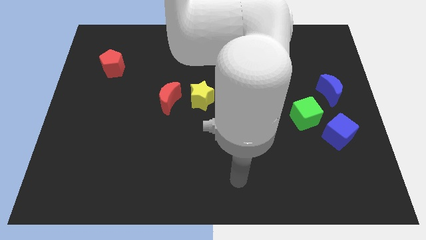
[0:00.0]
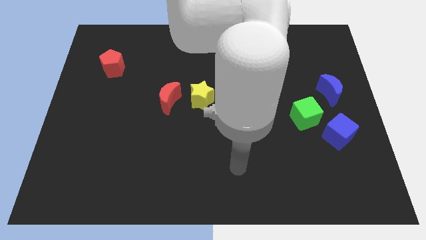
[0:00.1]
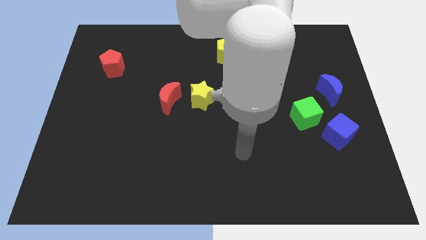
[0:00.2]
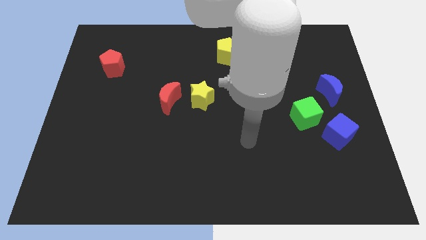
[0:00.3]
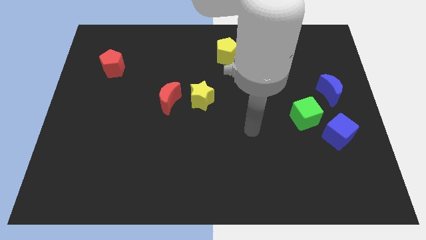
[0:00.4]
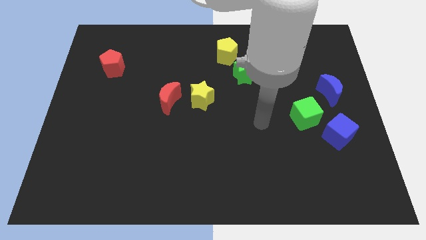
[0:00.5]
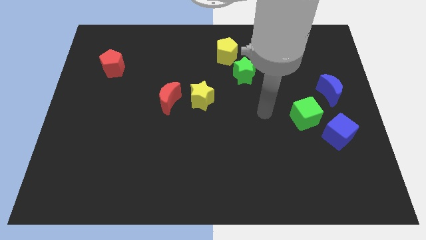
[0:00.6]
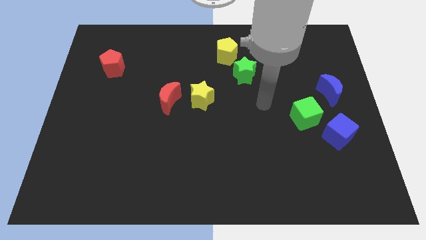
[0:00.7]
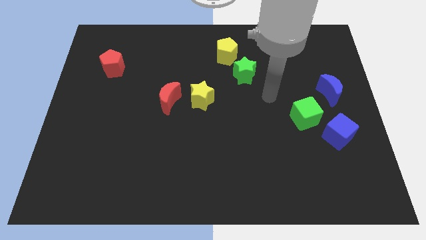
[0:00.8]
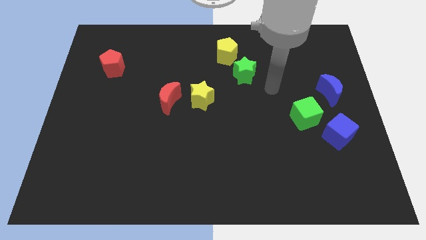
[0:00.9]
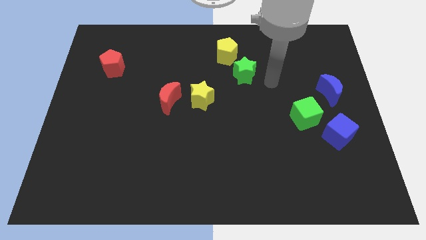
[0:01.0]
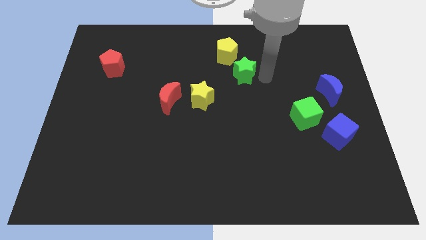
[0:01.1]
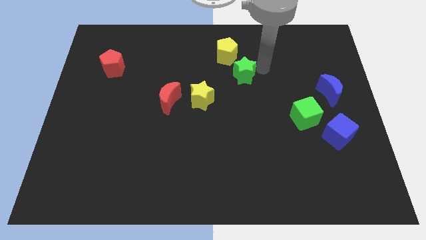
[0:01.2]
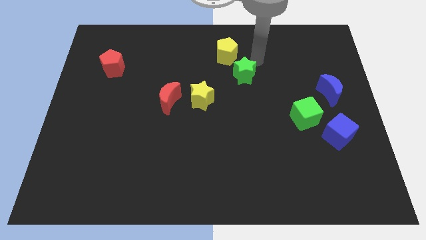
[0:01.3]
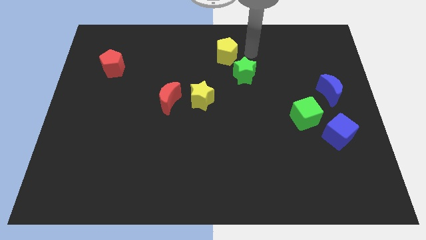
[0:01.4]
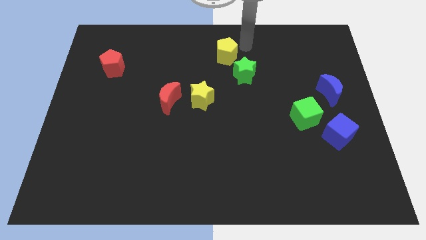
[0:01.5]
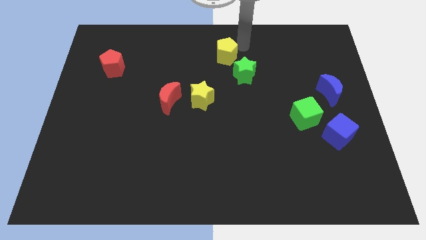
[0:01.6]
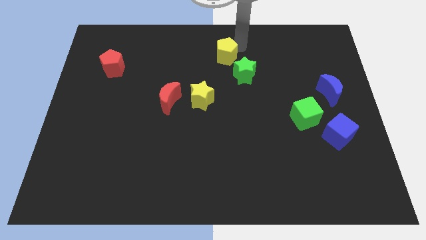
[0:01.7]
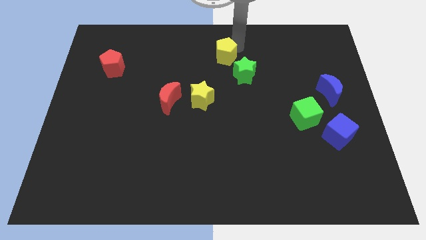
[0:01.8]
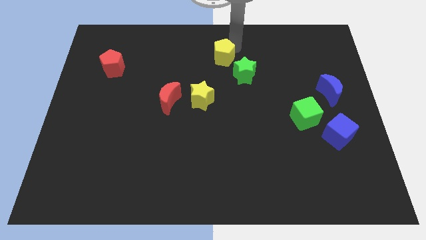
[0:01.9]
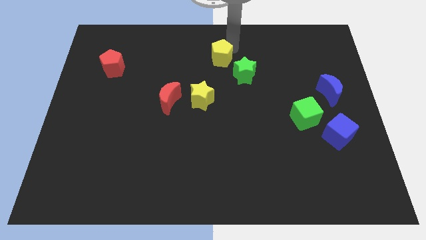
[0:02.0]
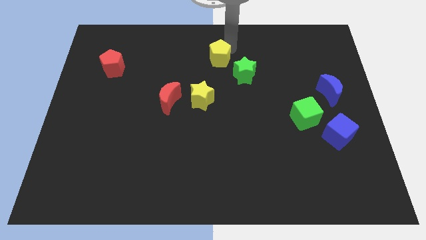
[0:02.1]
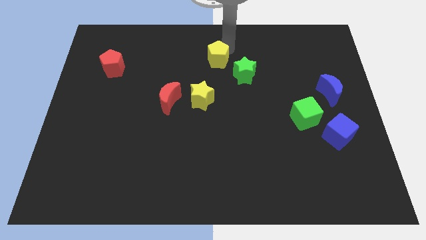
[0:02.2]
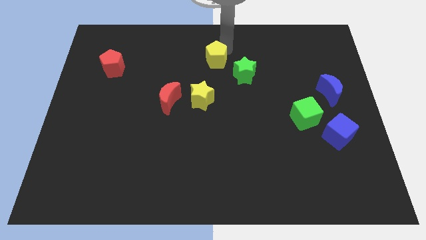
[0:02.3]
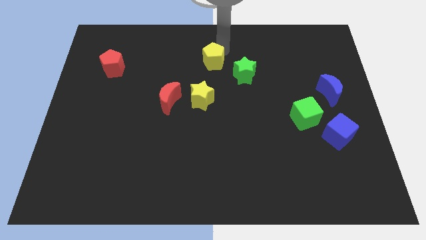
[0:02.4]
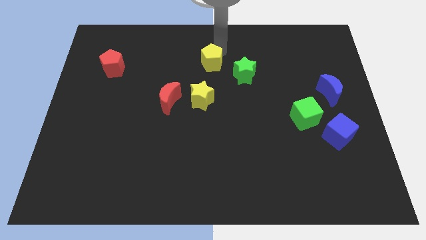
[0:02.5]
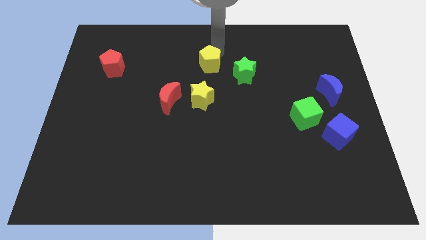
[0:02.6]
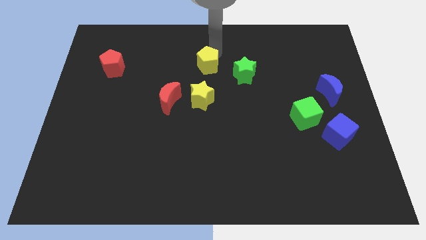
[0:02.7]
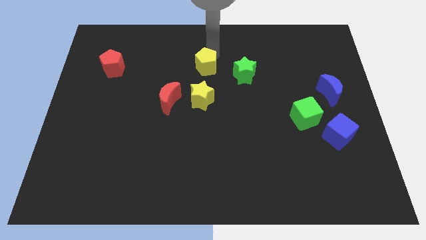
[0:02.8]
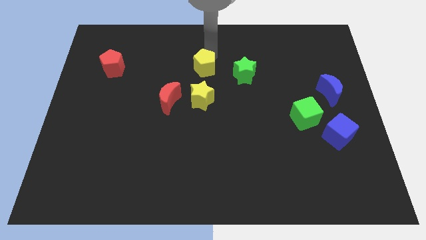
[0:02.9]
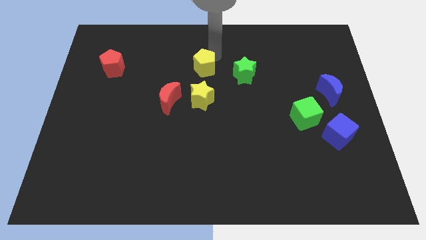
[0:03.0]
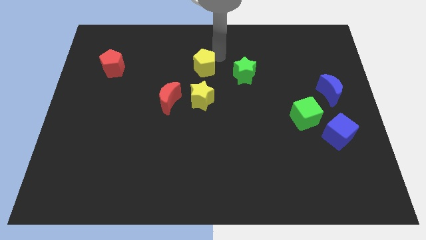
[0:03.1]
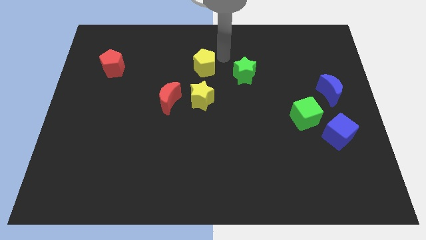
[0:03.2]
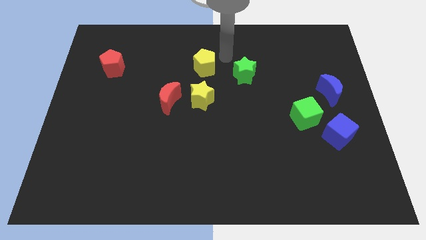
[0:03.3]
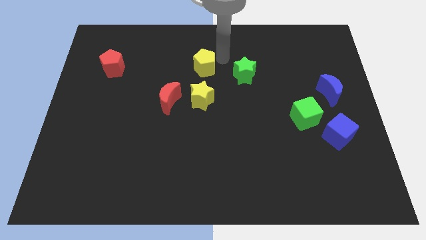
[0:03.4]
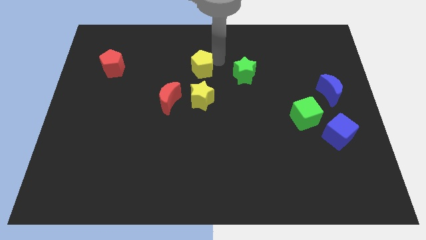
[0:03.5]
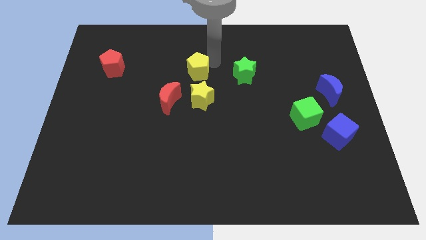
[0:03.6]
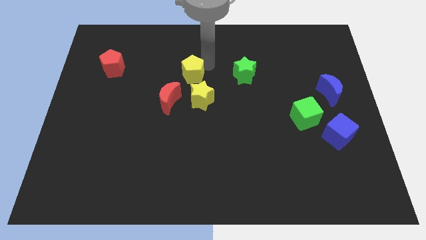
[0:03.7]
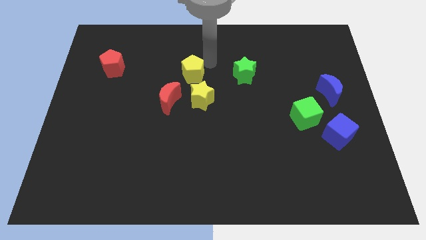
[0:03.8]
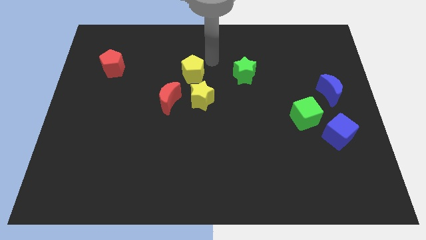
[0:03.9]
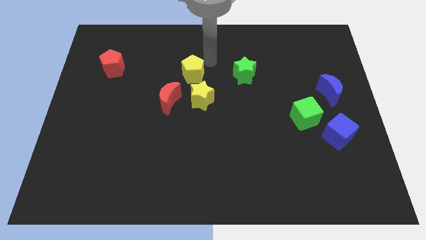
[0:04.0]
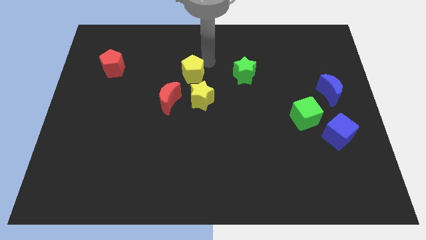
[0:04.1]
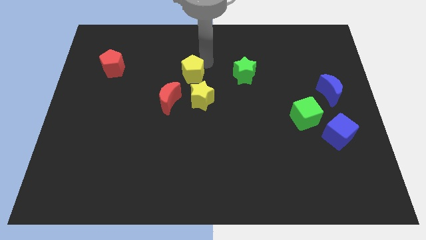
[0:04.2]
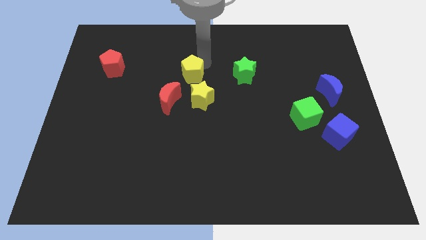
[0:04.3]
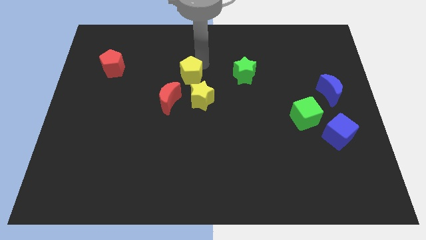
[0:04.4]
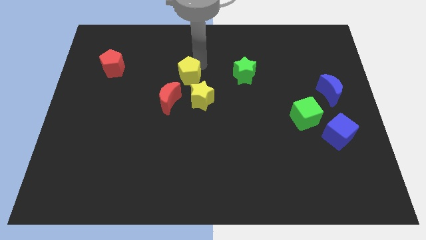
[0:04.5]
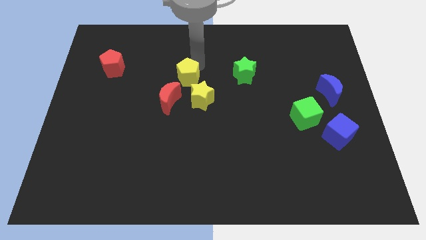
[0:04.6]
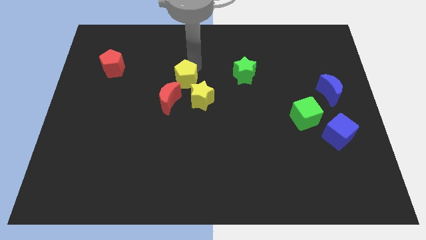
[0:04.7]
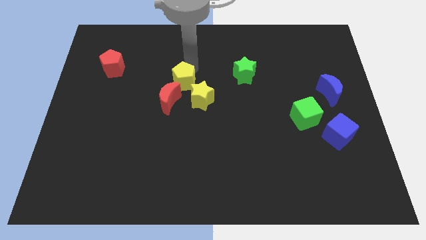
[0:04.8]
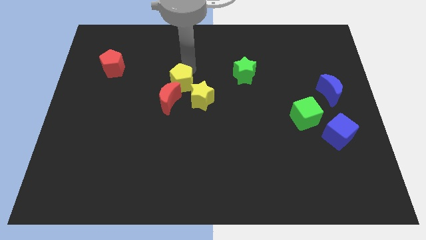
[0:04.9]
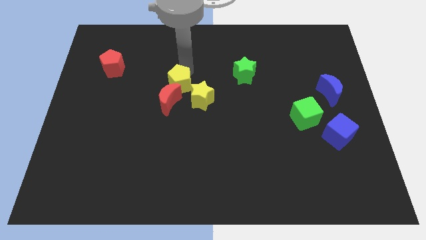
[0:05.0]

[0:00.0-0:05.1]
push the yellow pentagon to the red moon

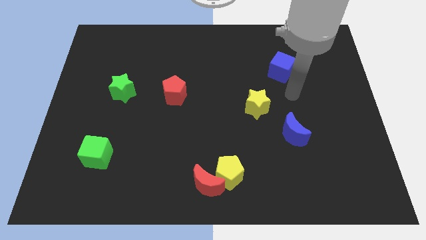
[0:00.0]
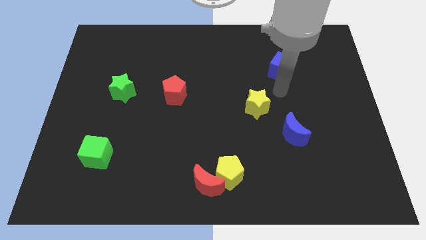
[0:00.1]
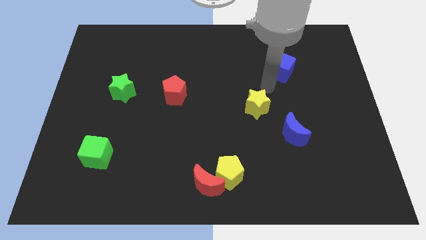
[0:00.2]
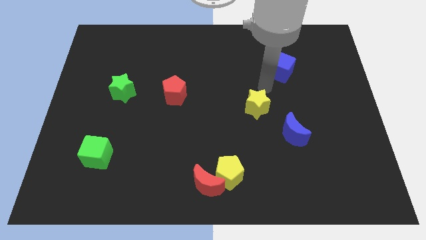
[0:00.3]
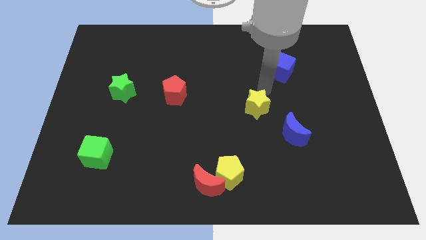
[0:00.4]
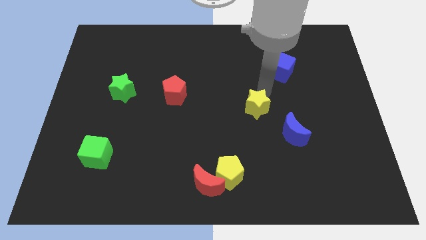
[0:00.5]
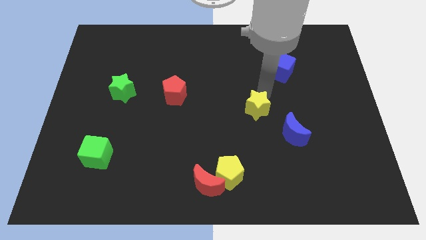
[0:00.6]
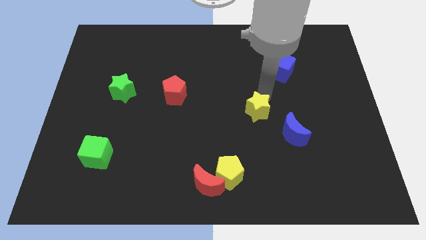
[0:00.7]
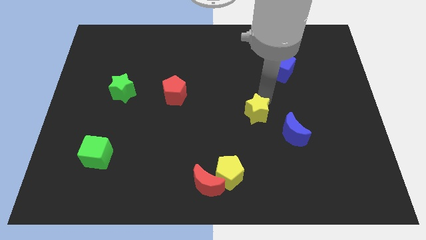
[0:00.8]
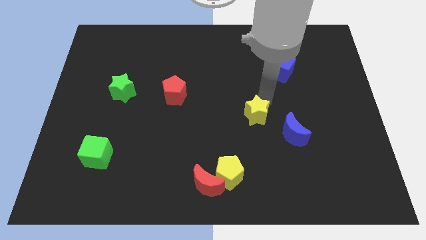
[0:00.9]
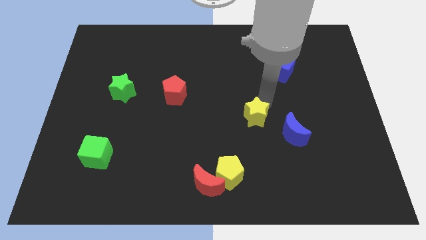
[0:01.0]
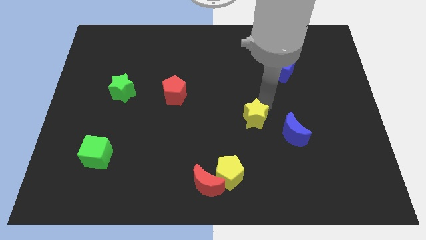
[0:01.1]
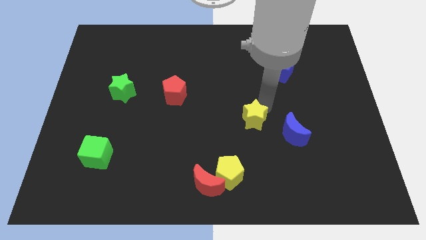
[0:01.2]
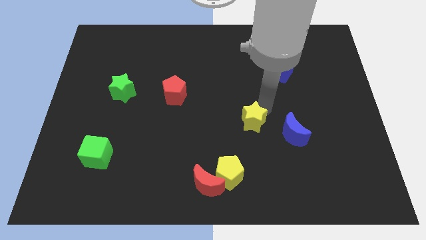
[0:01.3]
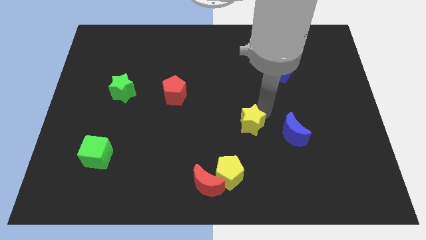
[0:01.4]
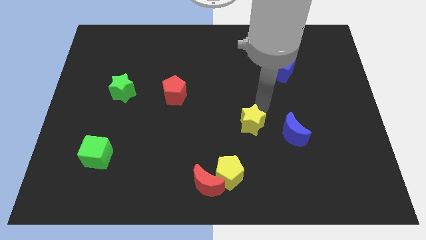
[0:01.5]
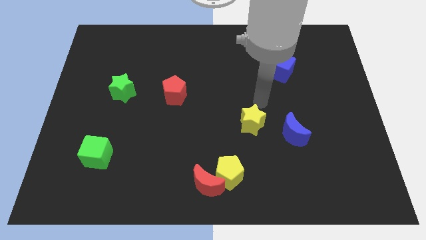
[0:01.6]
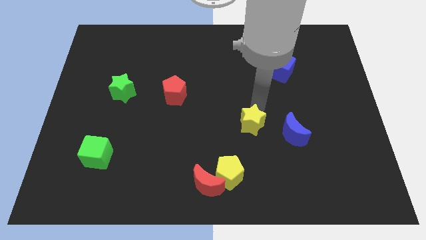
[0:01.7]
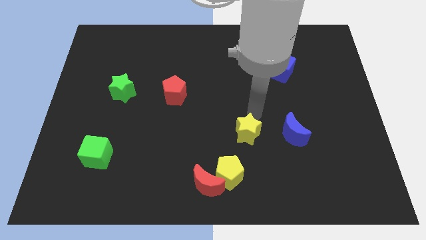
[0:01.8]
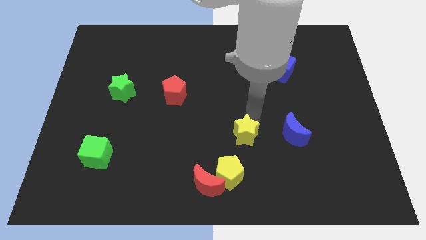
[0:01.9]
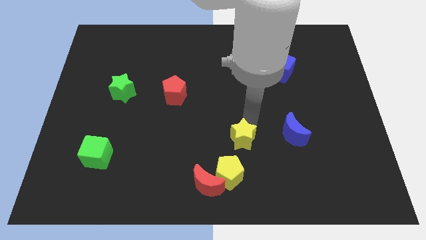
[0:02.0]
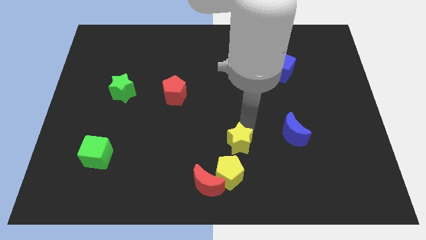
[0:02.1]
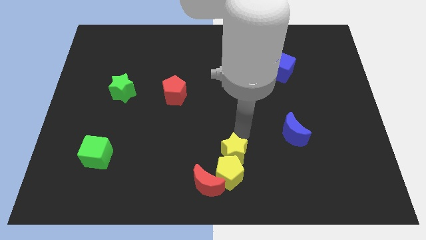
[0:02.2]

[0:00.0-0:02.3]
slide the yellow star to the yellow pentagon
